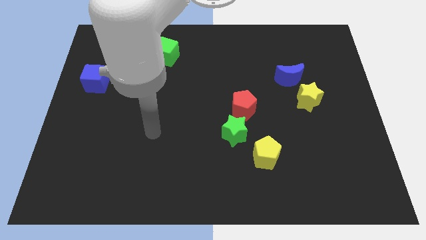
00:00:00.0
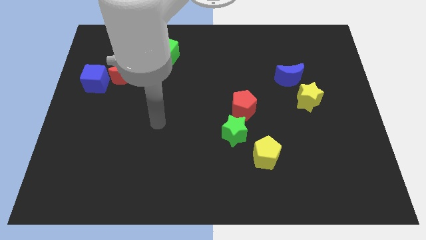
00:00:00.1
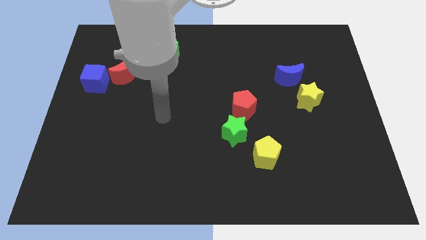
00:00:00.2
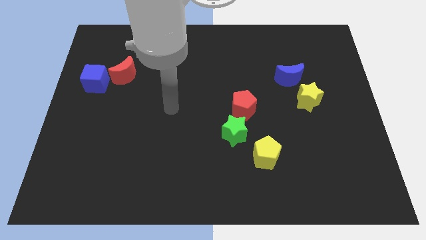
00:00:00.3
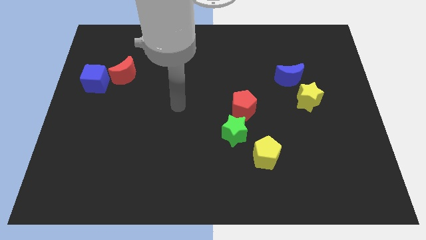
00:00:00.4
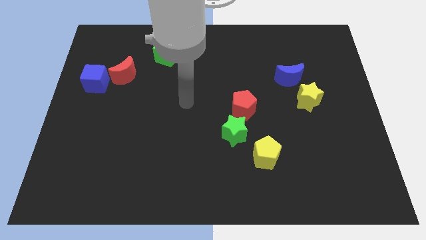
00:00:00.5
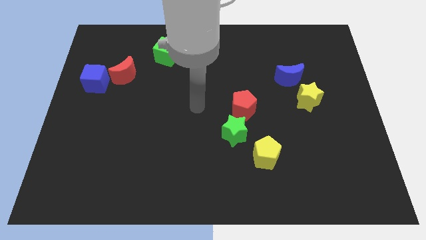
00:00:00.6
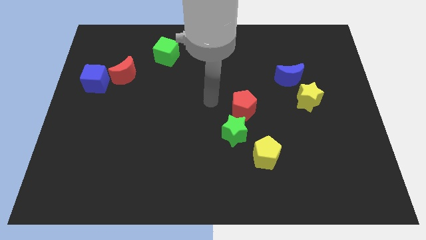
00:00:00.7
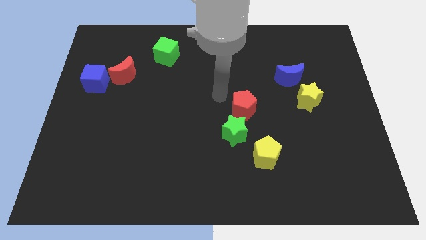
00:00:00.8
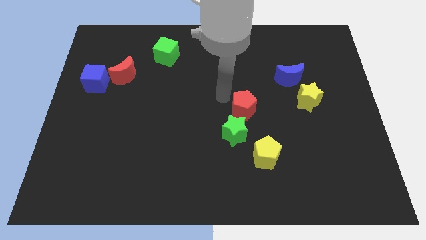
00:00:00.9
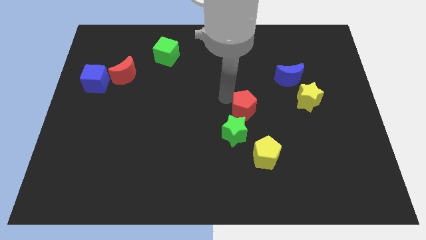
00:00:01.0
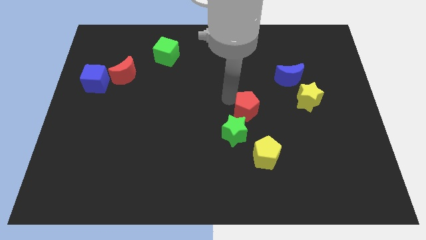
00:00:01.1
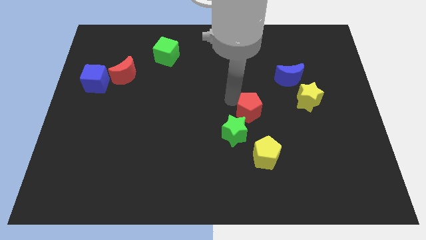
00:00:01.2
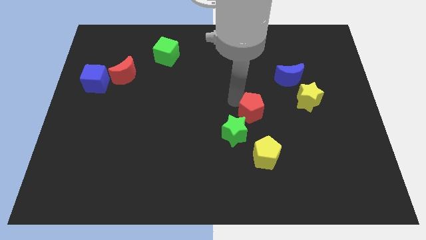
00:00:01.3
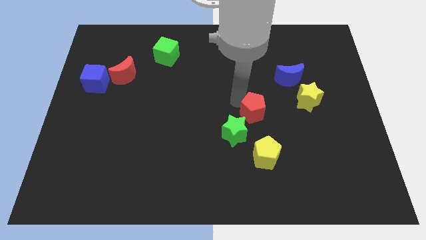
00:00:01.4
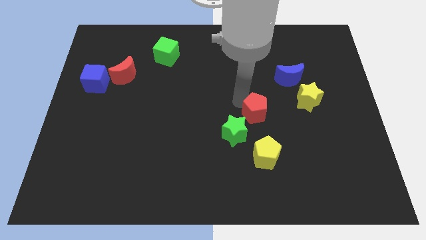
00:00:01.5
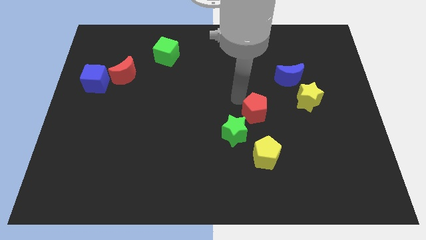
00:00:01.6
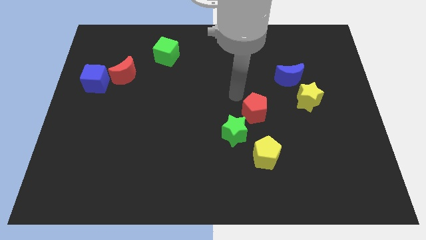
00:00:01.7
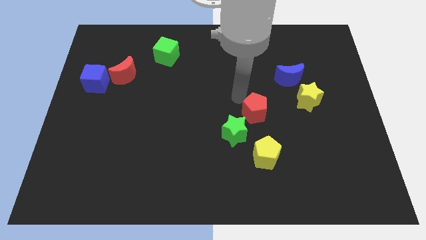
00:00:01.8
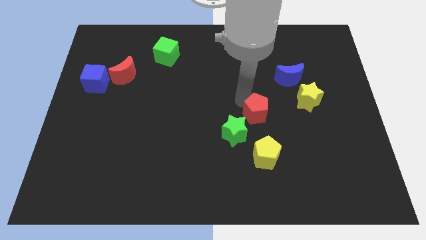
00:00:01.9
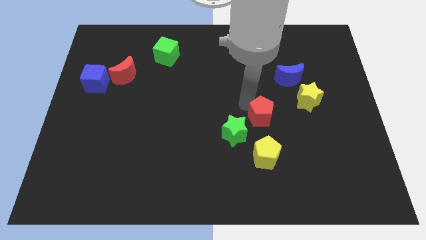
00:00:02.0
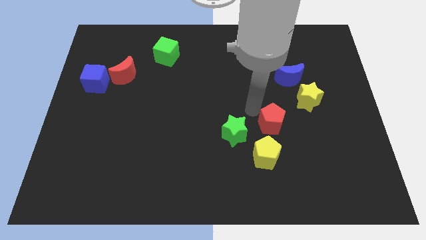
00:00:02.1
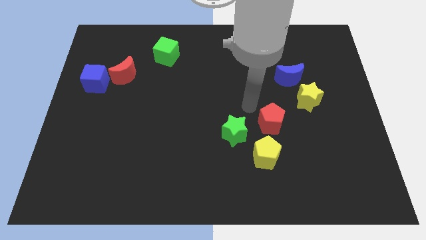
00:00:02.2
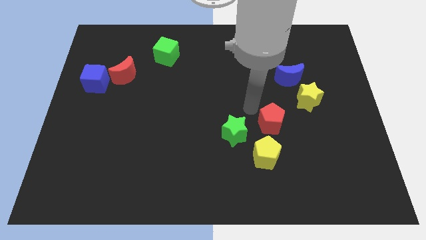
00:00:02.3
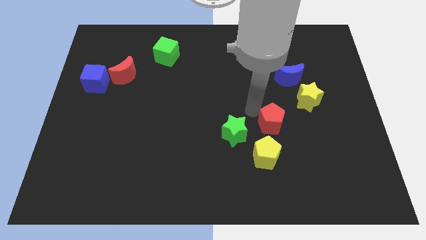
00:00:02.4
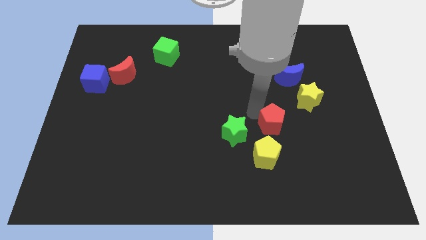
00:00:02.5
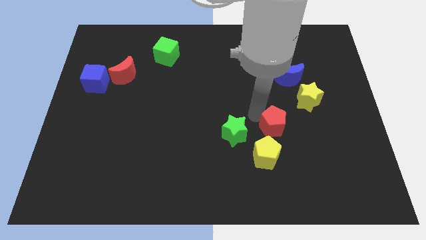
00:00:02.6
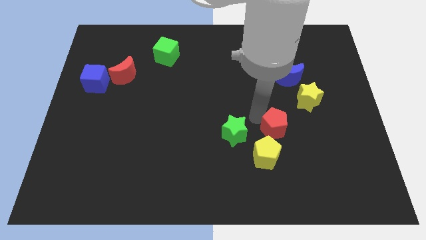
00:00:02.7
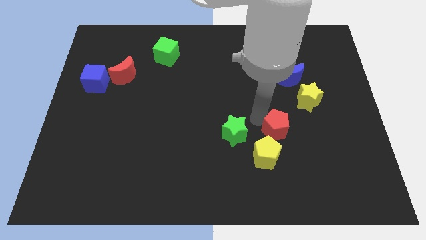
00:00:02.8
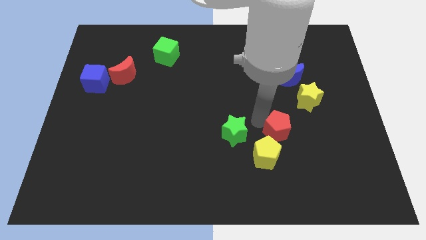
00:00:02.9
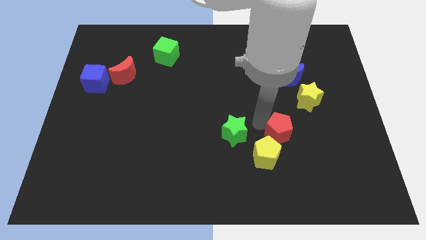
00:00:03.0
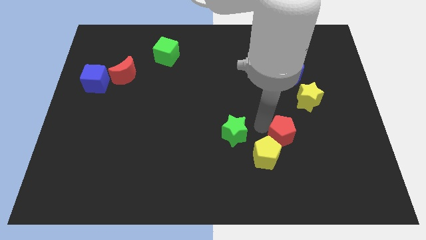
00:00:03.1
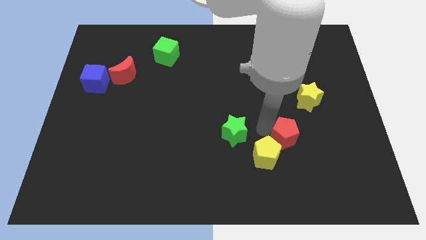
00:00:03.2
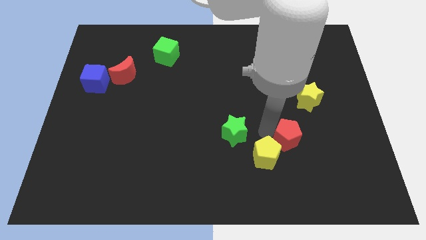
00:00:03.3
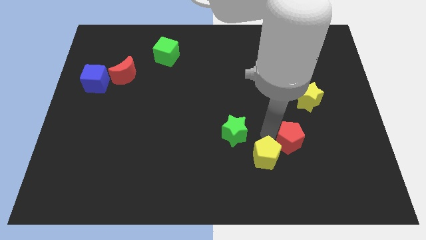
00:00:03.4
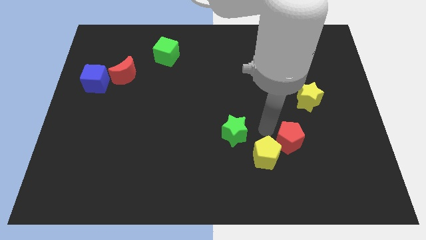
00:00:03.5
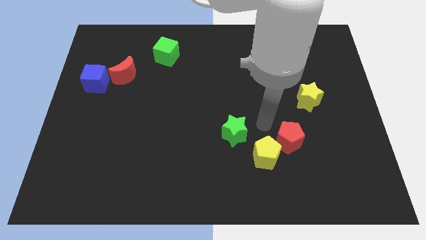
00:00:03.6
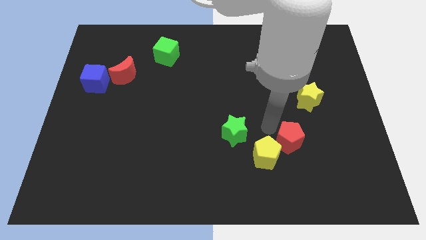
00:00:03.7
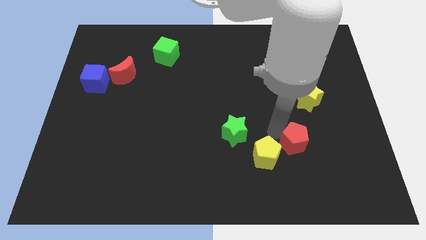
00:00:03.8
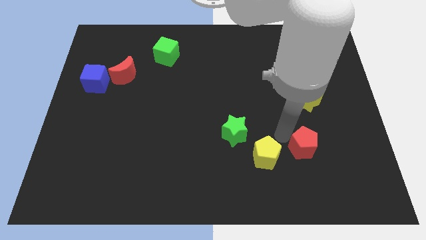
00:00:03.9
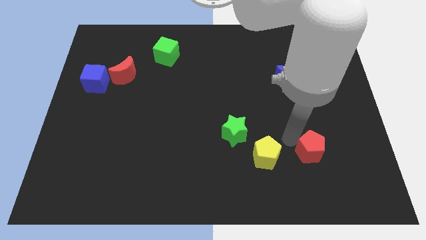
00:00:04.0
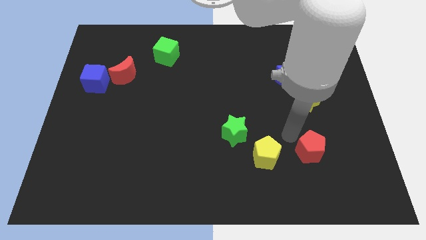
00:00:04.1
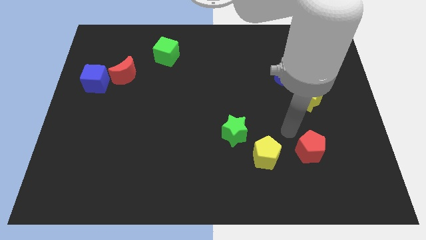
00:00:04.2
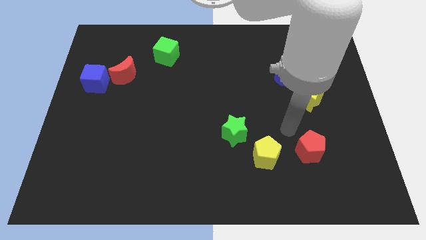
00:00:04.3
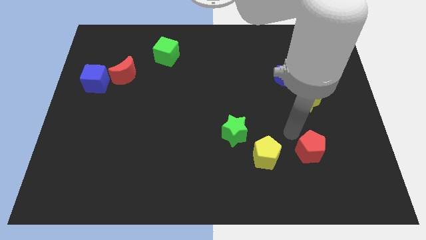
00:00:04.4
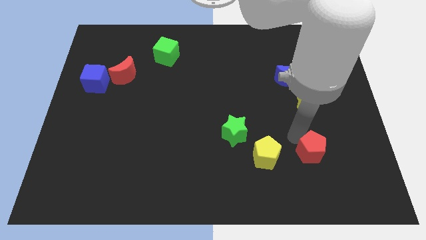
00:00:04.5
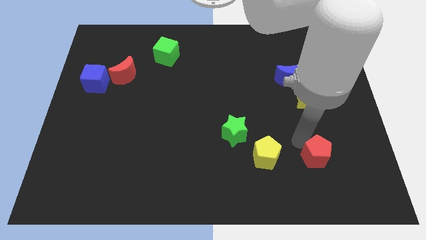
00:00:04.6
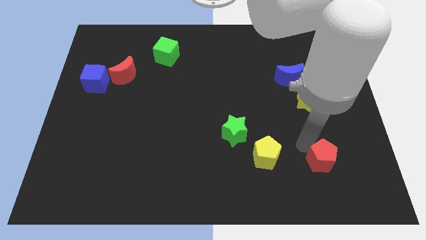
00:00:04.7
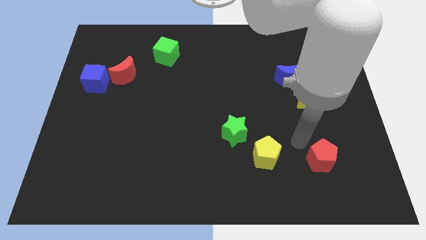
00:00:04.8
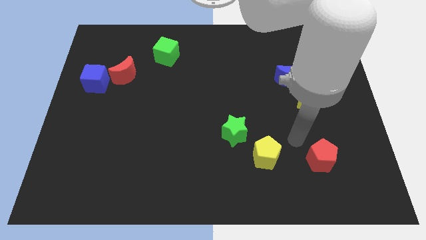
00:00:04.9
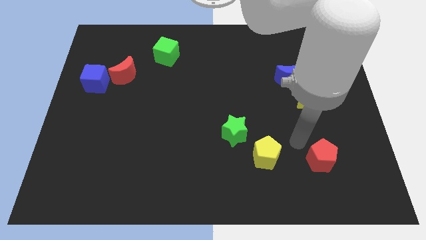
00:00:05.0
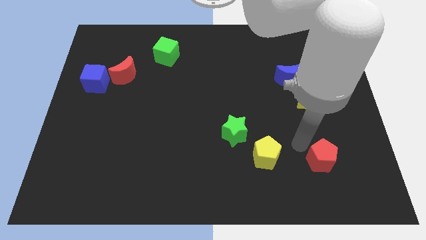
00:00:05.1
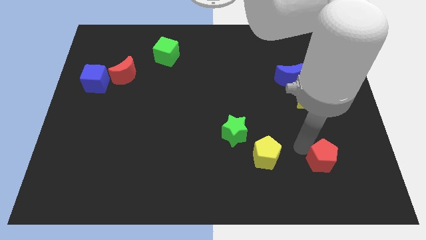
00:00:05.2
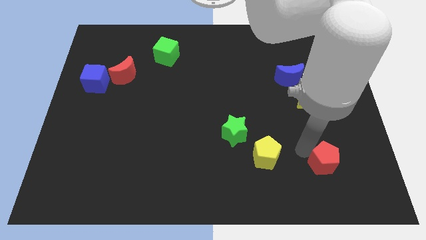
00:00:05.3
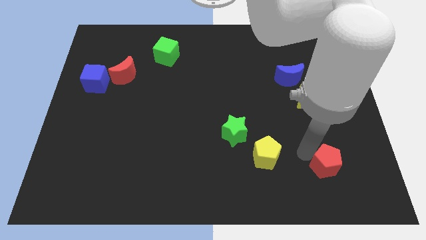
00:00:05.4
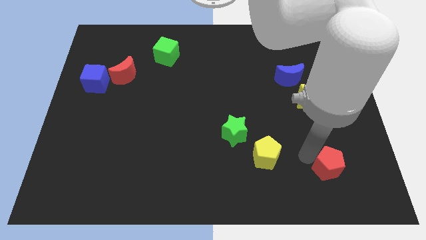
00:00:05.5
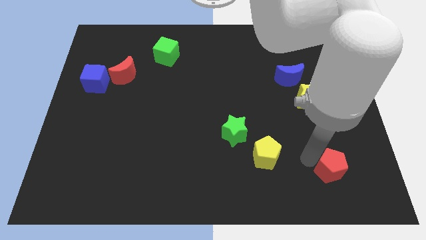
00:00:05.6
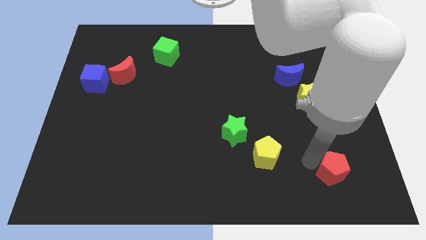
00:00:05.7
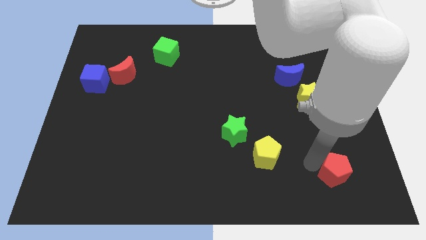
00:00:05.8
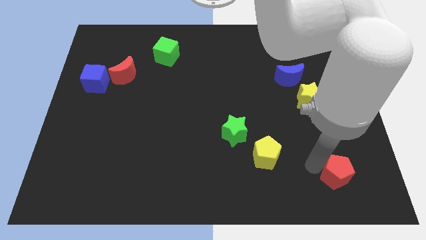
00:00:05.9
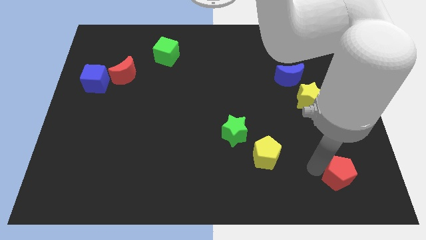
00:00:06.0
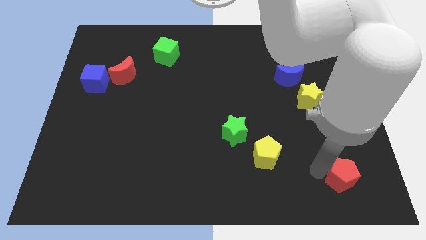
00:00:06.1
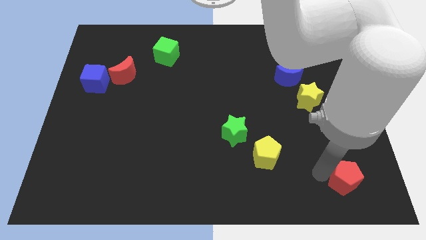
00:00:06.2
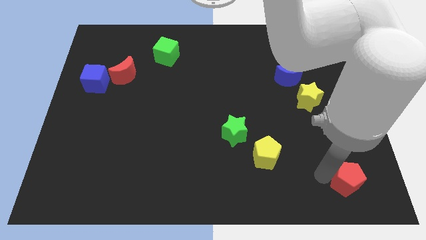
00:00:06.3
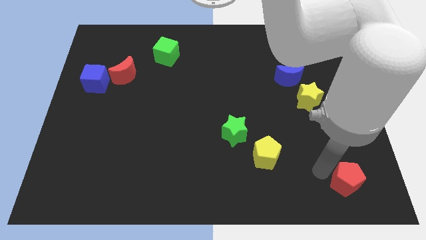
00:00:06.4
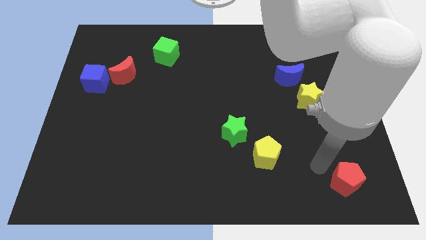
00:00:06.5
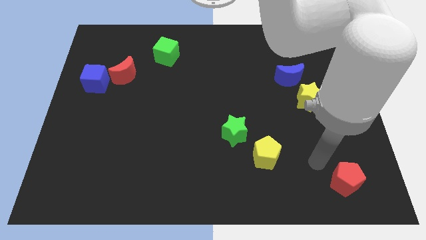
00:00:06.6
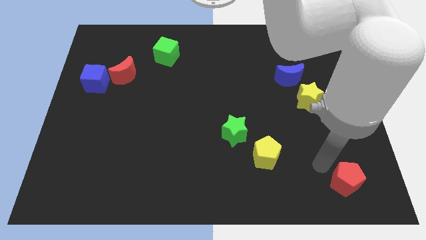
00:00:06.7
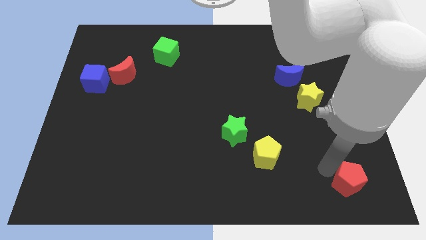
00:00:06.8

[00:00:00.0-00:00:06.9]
slide the red pentagon to the bottom right corner
